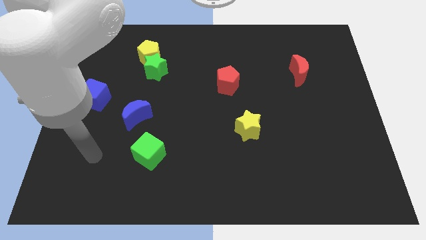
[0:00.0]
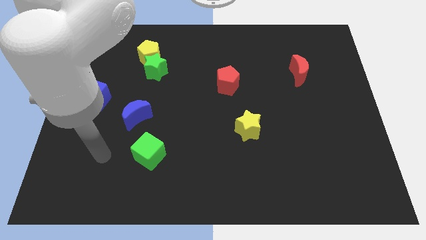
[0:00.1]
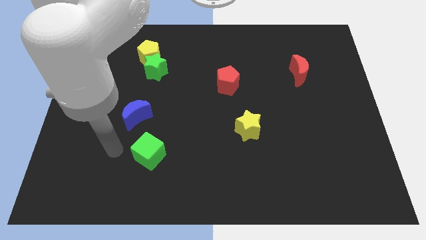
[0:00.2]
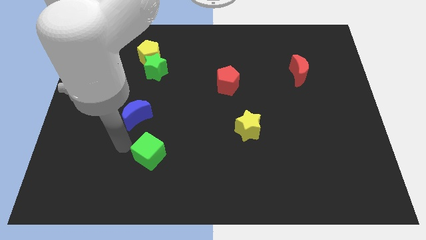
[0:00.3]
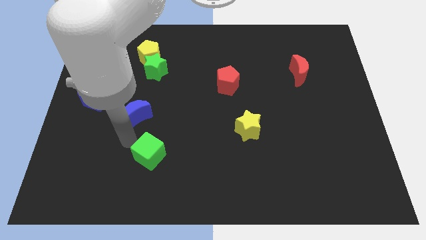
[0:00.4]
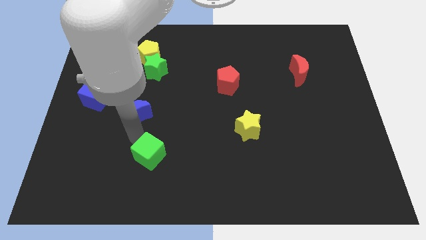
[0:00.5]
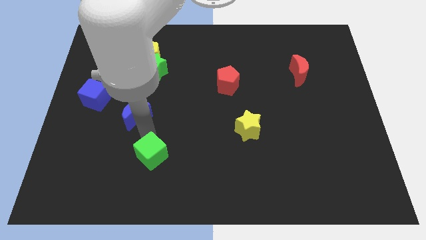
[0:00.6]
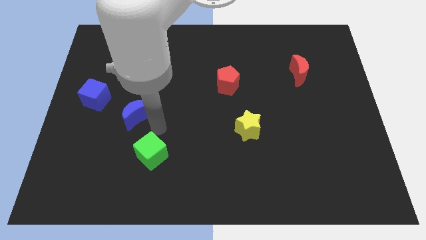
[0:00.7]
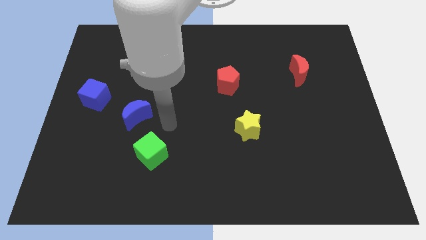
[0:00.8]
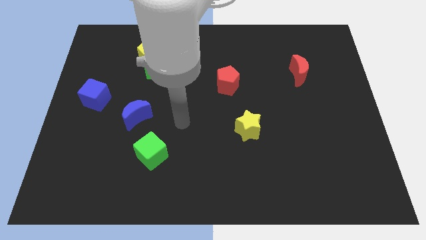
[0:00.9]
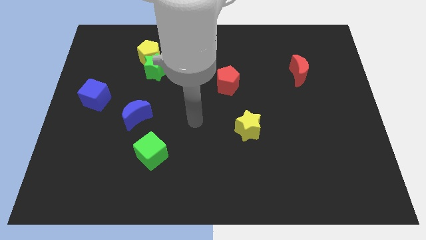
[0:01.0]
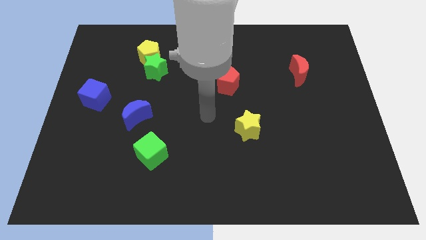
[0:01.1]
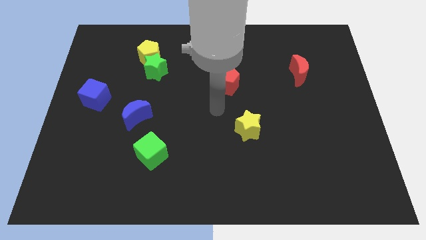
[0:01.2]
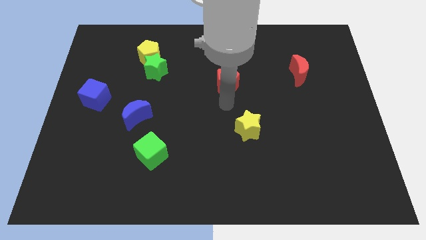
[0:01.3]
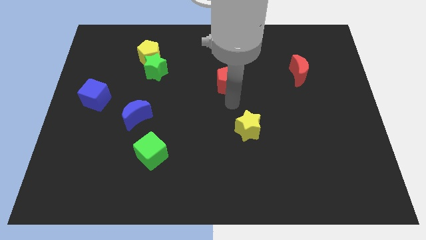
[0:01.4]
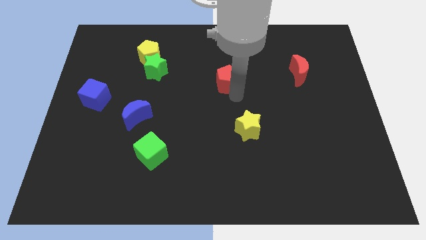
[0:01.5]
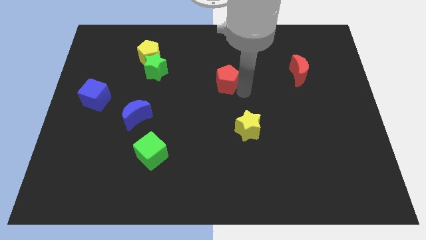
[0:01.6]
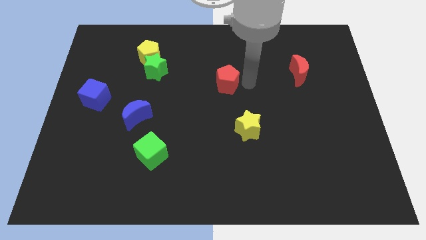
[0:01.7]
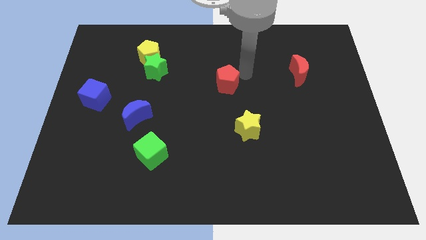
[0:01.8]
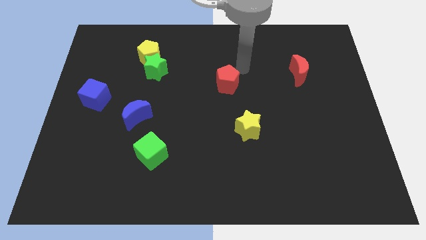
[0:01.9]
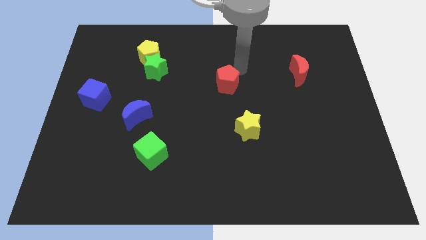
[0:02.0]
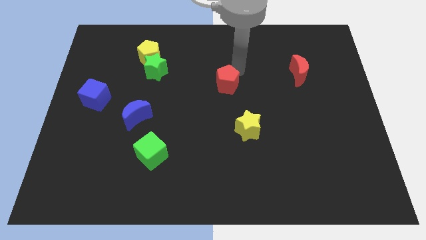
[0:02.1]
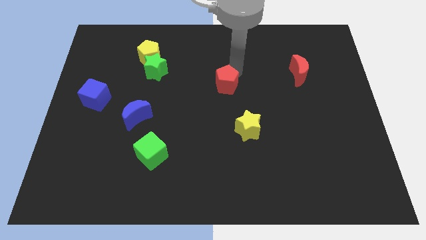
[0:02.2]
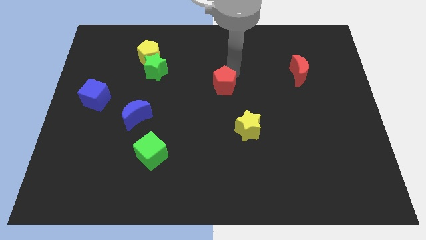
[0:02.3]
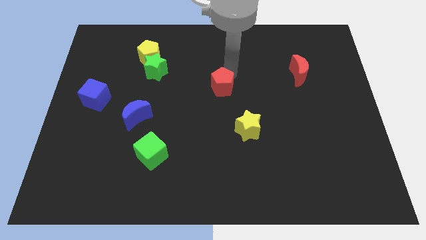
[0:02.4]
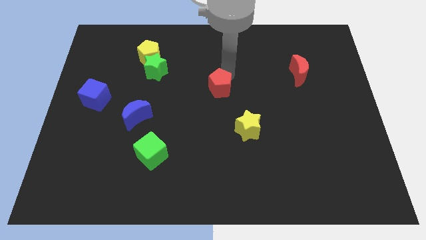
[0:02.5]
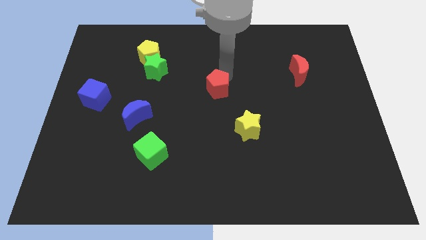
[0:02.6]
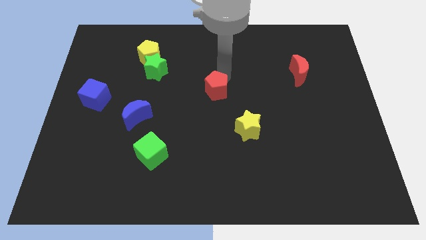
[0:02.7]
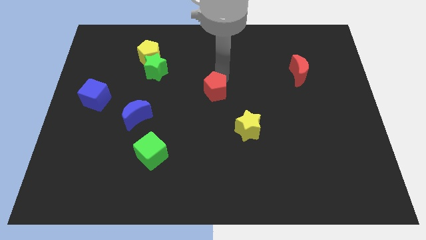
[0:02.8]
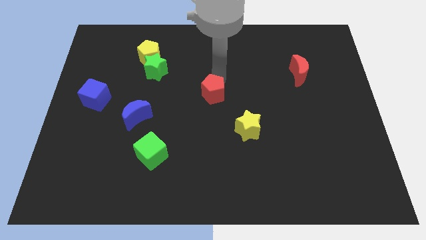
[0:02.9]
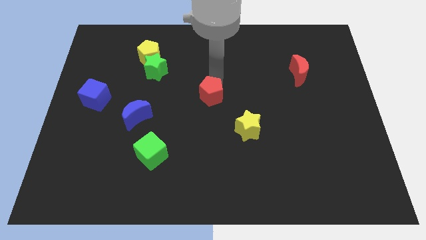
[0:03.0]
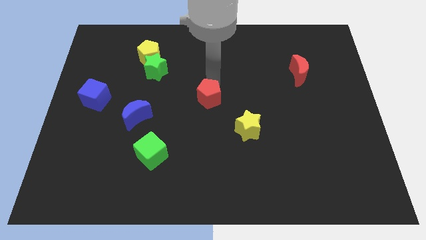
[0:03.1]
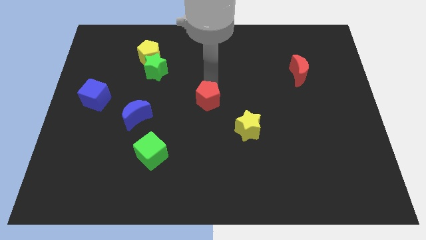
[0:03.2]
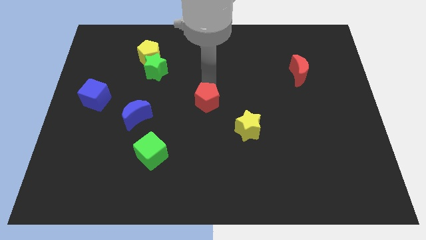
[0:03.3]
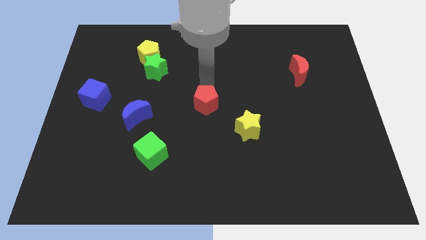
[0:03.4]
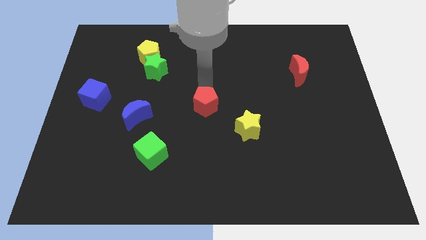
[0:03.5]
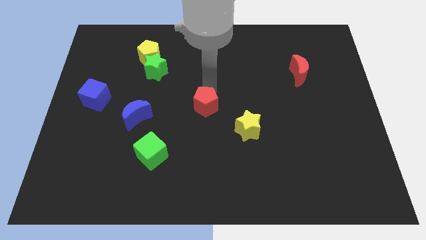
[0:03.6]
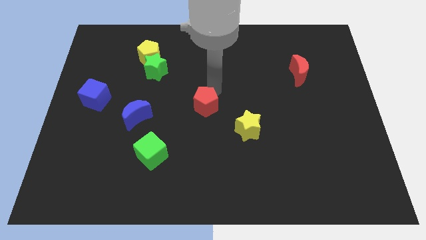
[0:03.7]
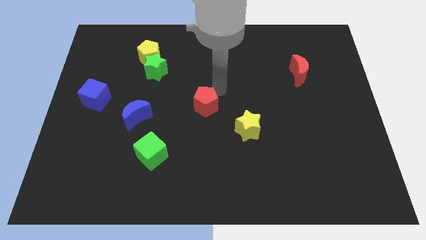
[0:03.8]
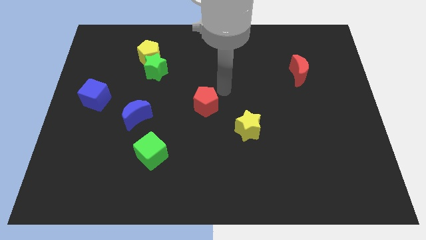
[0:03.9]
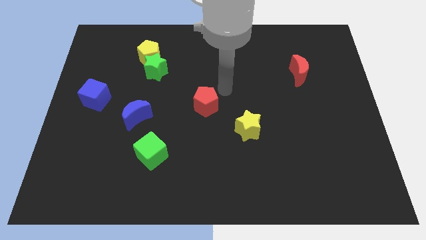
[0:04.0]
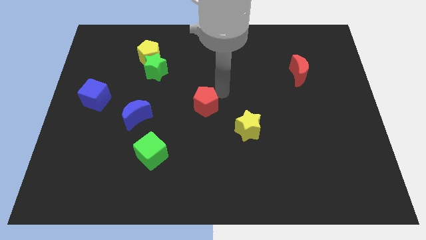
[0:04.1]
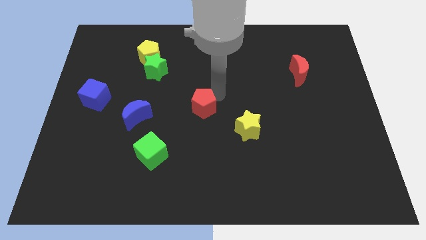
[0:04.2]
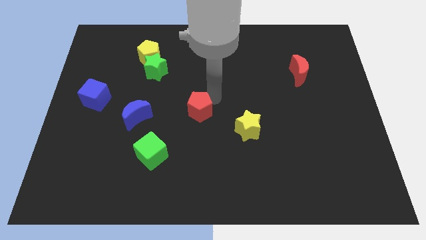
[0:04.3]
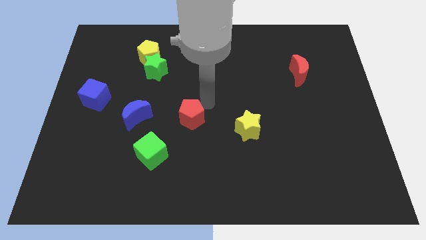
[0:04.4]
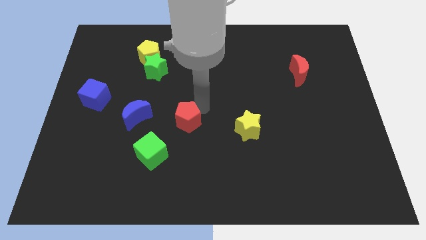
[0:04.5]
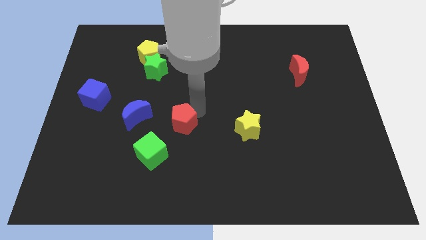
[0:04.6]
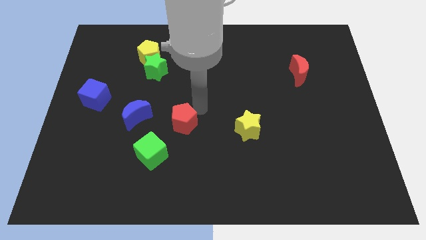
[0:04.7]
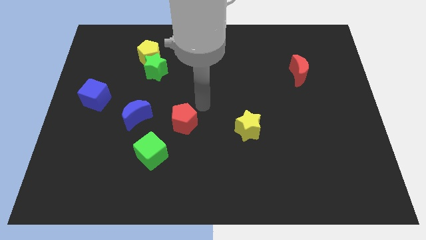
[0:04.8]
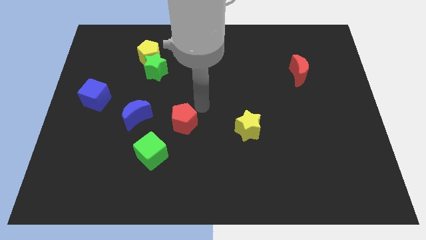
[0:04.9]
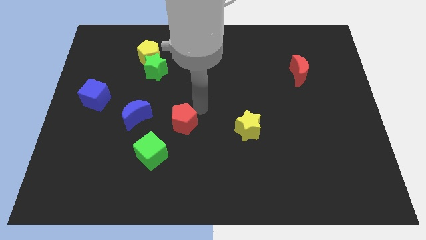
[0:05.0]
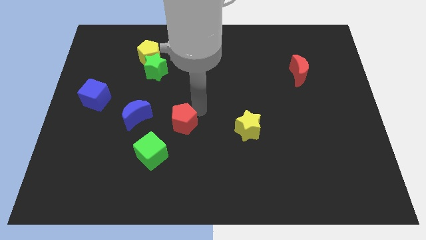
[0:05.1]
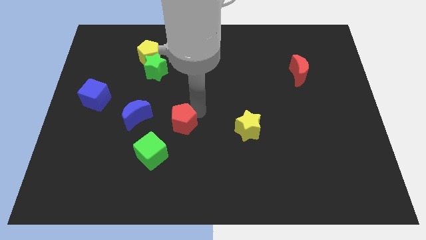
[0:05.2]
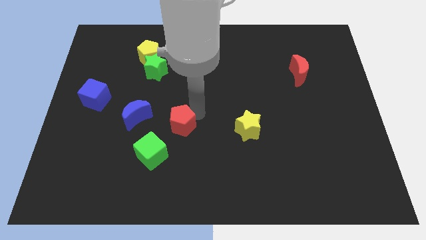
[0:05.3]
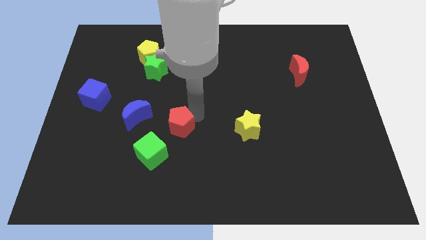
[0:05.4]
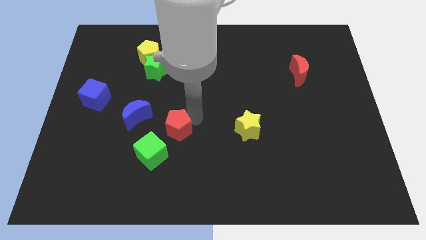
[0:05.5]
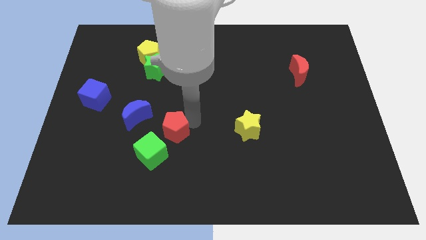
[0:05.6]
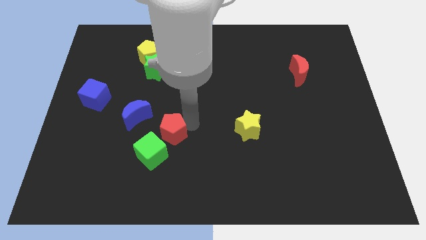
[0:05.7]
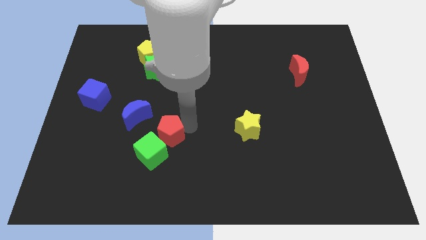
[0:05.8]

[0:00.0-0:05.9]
move the red pentagon close to the green cube

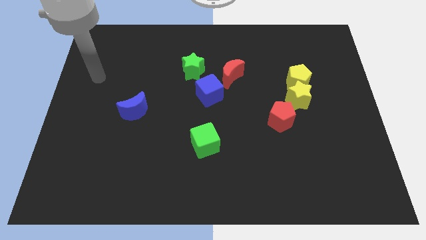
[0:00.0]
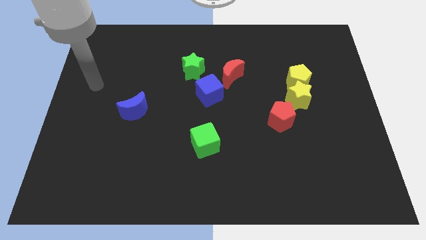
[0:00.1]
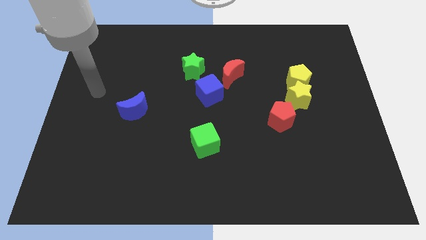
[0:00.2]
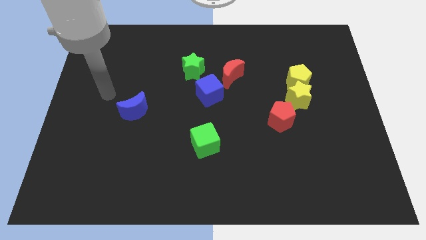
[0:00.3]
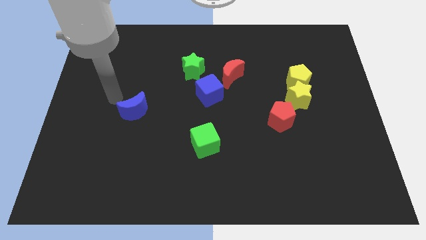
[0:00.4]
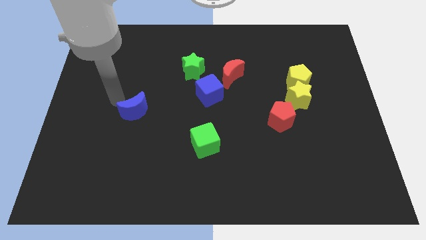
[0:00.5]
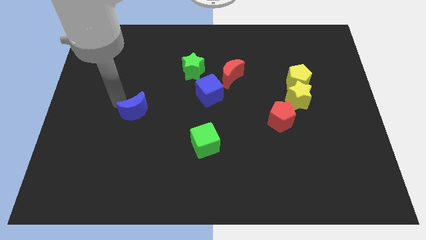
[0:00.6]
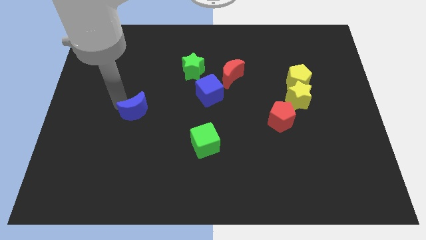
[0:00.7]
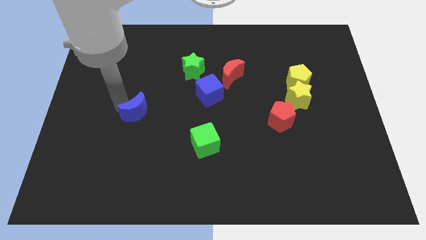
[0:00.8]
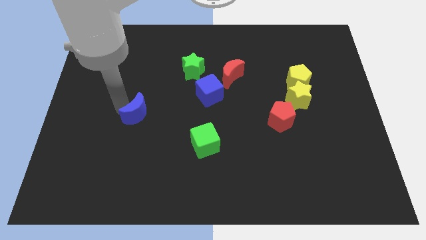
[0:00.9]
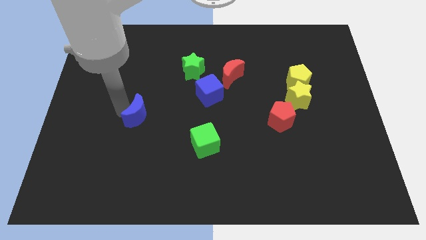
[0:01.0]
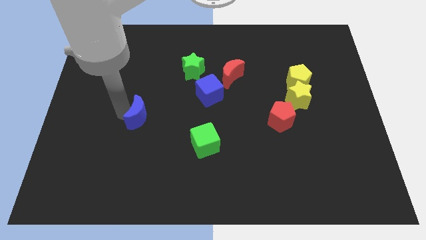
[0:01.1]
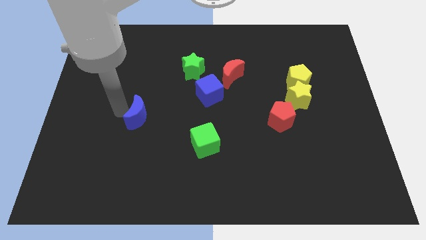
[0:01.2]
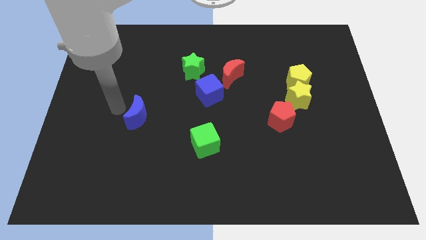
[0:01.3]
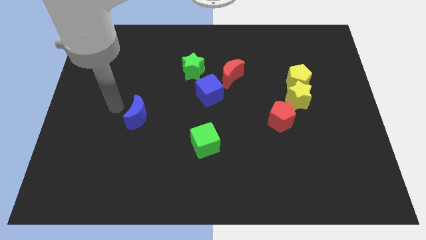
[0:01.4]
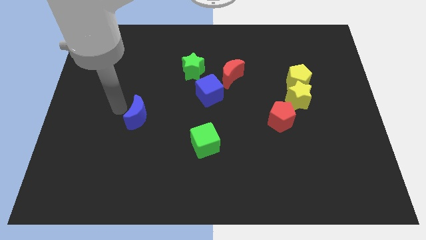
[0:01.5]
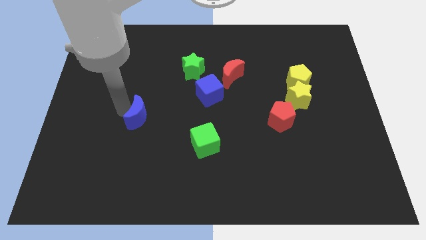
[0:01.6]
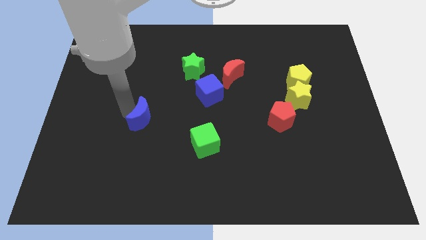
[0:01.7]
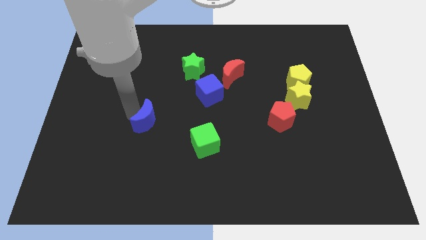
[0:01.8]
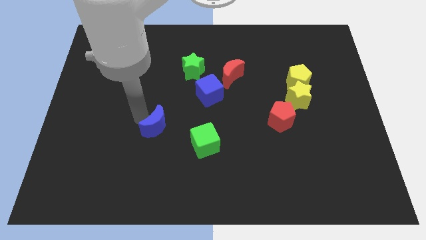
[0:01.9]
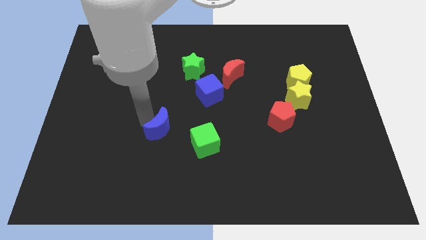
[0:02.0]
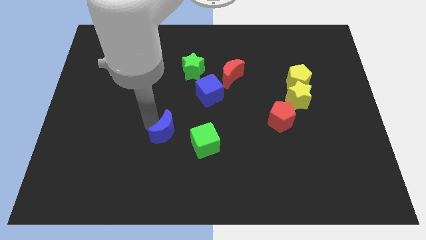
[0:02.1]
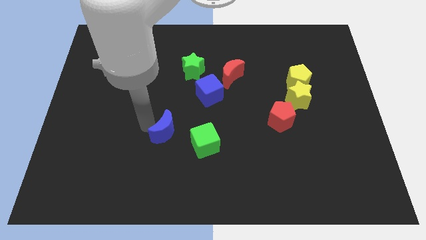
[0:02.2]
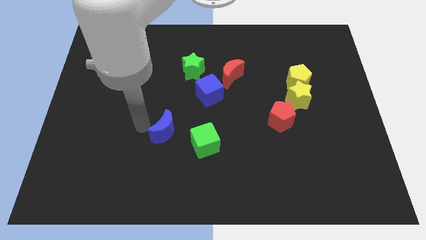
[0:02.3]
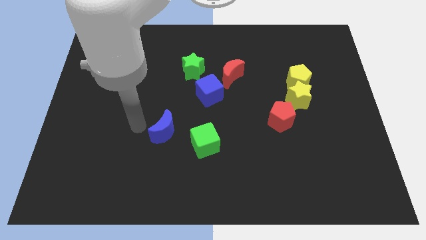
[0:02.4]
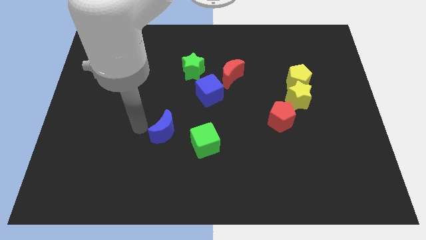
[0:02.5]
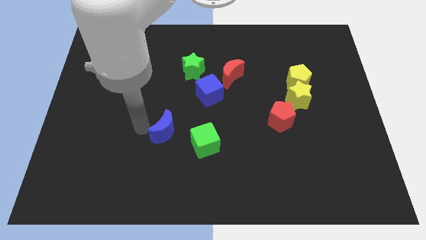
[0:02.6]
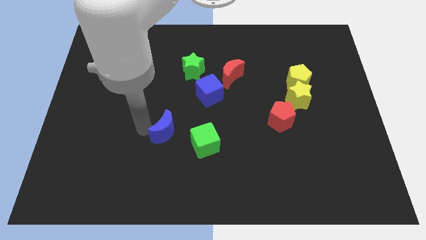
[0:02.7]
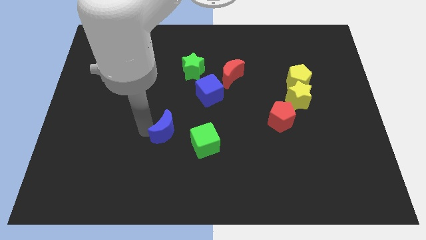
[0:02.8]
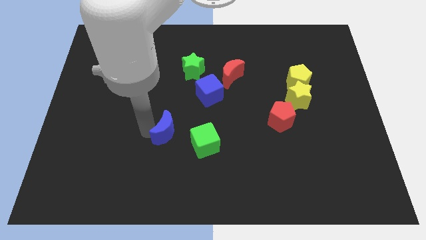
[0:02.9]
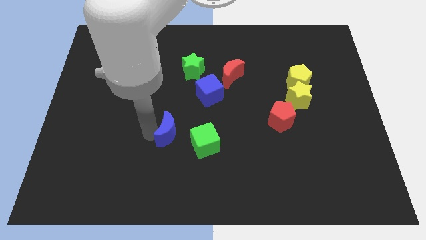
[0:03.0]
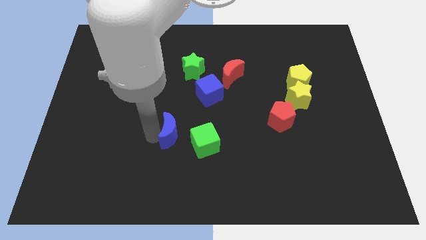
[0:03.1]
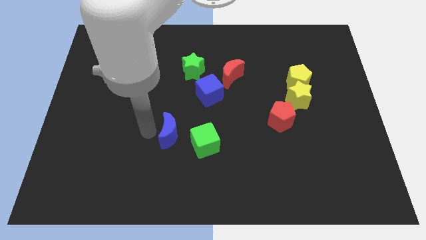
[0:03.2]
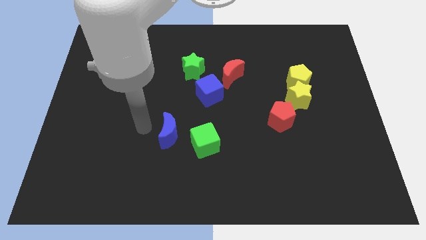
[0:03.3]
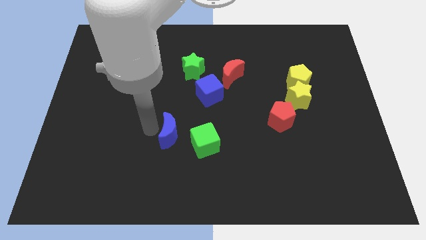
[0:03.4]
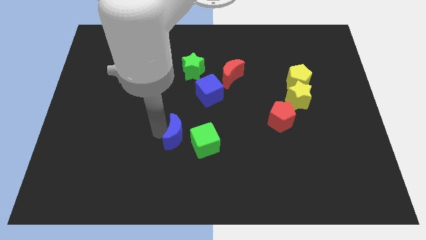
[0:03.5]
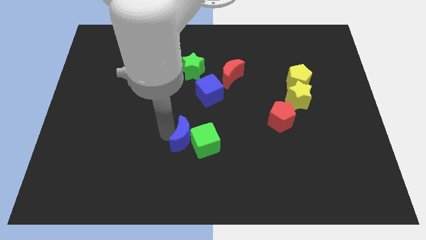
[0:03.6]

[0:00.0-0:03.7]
slide the blue moon close to the green cube
